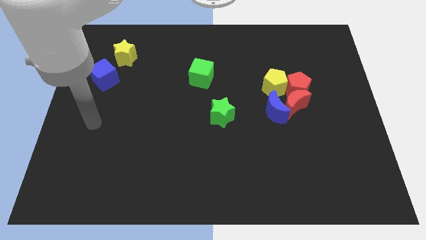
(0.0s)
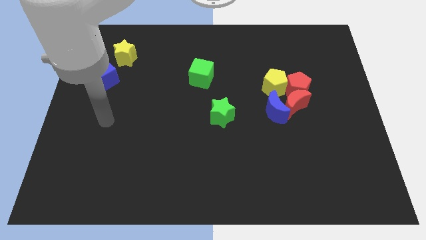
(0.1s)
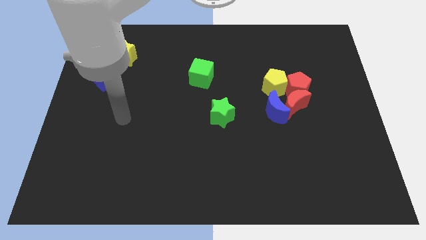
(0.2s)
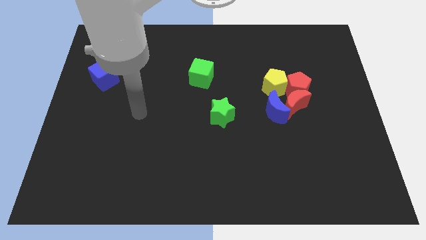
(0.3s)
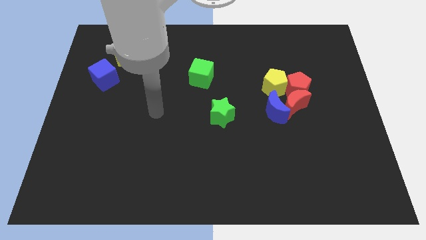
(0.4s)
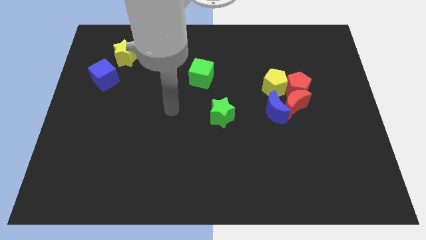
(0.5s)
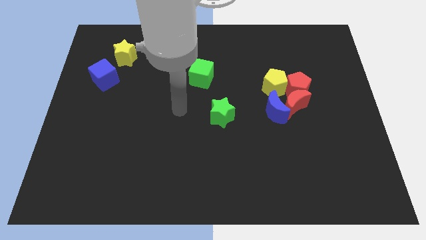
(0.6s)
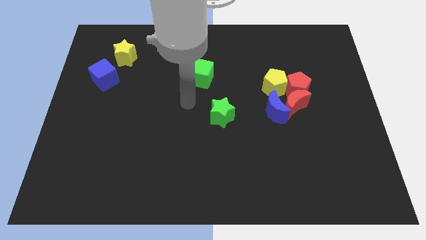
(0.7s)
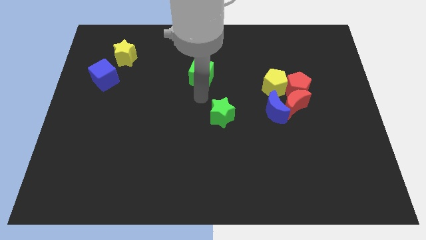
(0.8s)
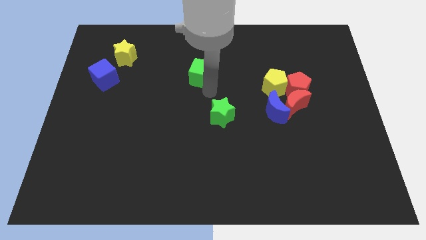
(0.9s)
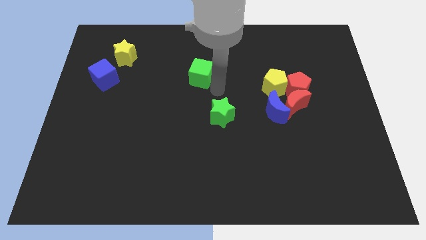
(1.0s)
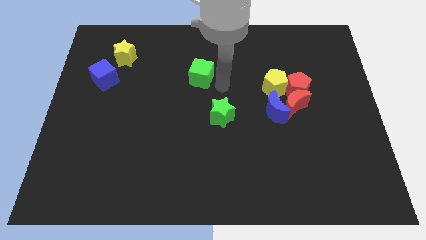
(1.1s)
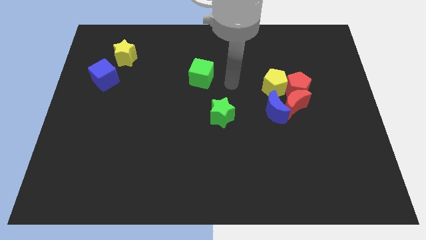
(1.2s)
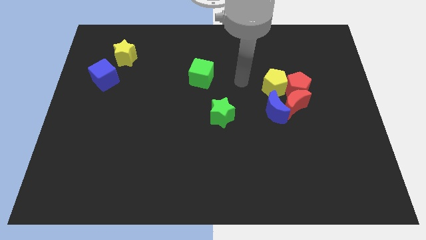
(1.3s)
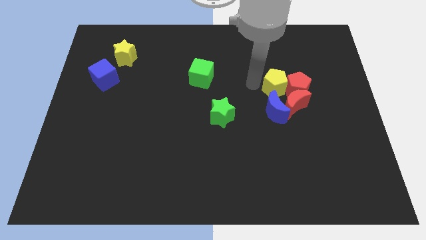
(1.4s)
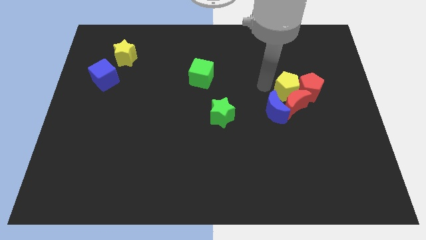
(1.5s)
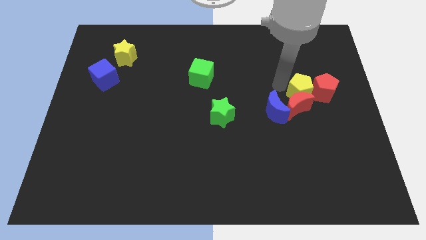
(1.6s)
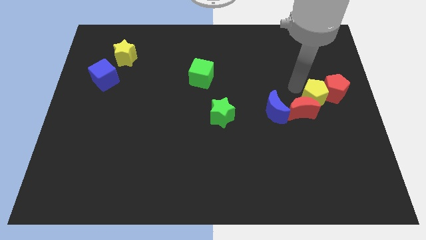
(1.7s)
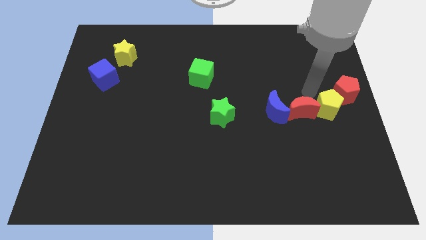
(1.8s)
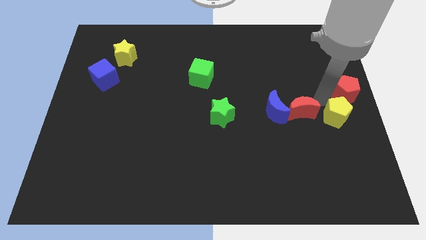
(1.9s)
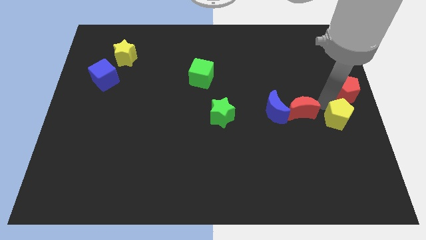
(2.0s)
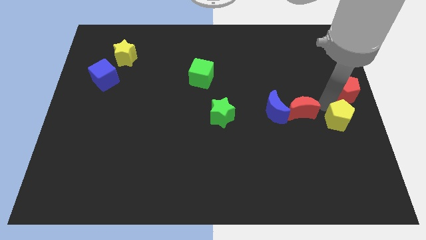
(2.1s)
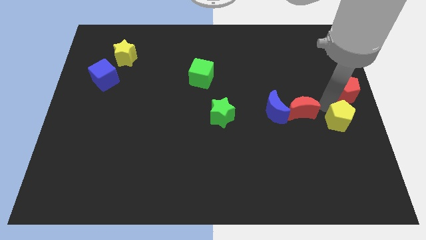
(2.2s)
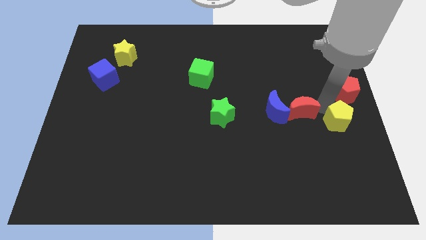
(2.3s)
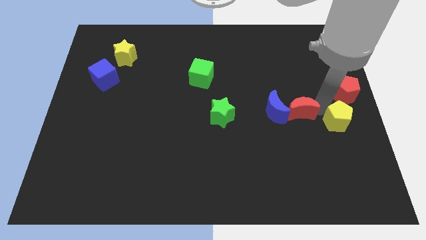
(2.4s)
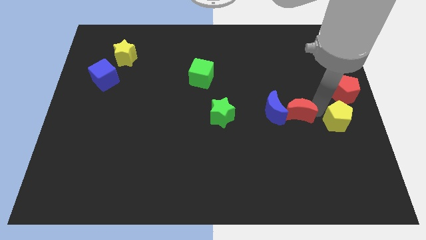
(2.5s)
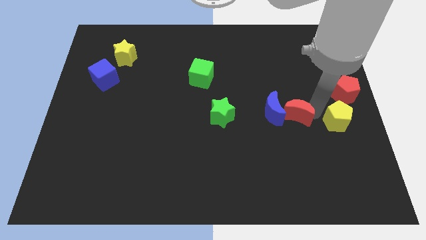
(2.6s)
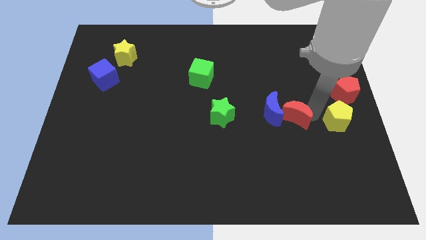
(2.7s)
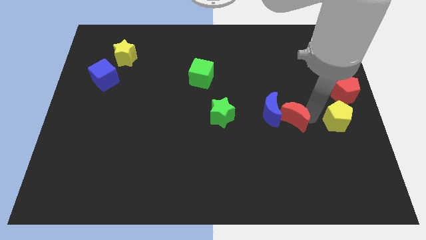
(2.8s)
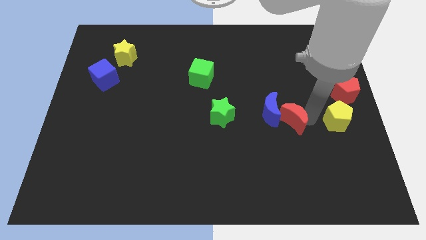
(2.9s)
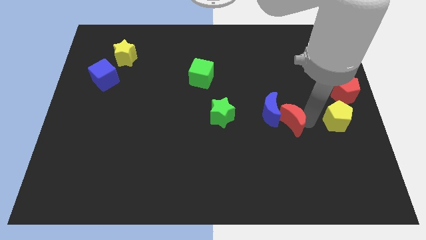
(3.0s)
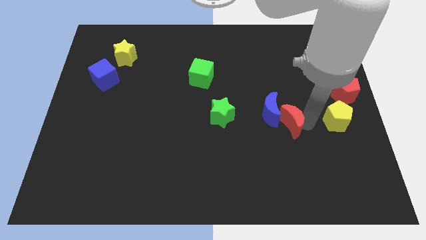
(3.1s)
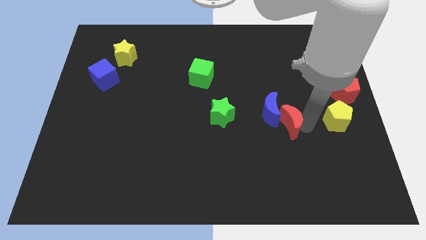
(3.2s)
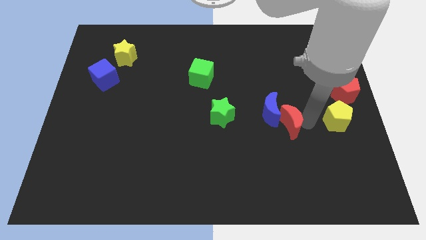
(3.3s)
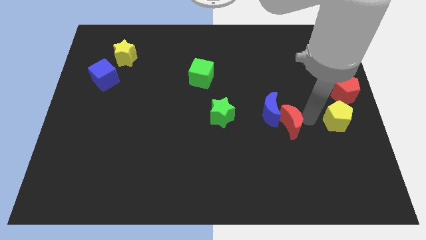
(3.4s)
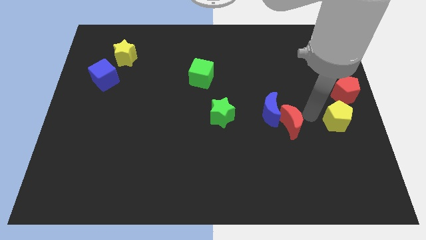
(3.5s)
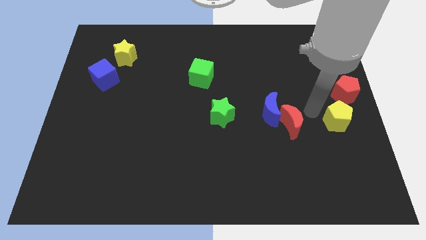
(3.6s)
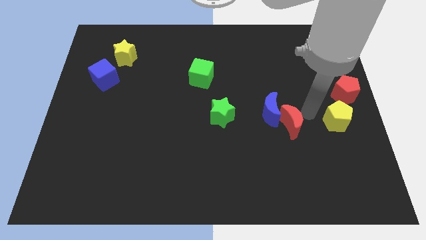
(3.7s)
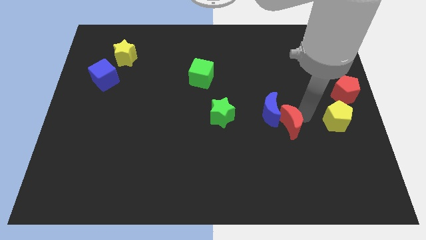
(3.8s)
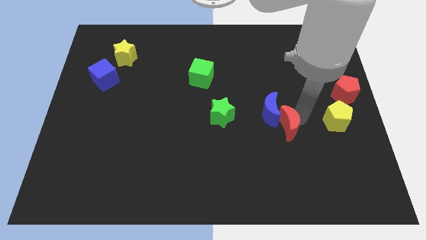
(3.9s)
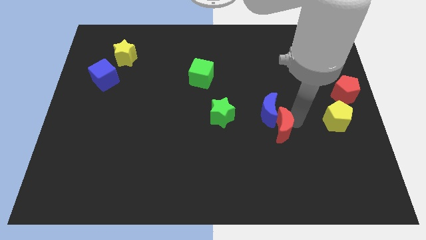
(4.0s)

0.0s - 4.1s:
separate the red moon from the group of blocks

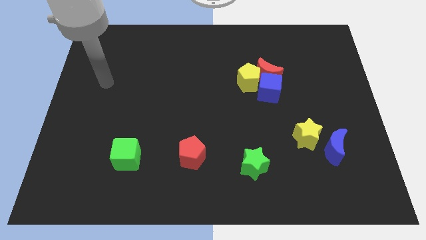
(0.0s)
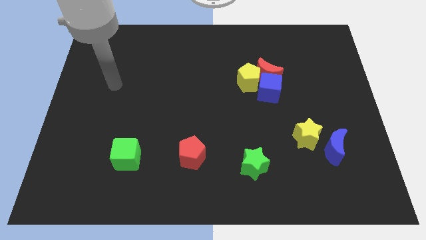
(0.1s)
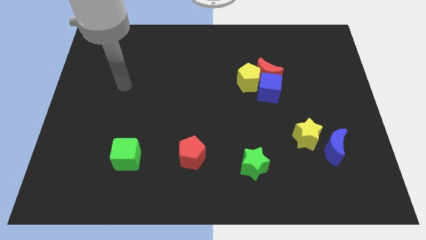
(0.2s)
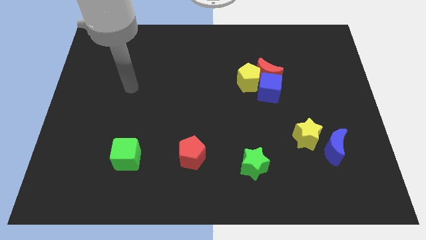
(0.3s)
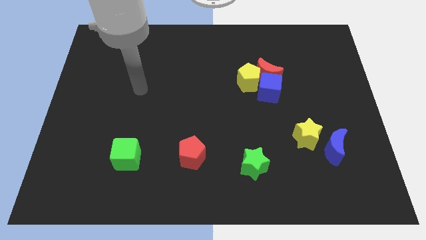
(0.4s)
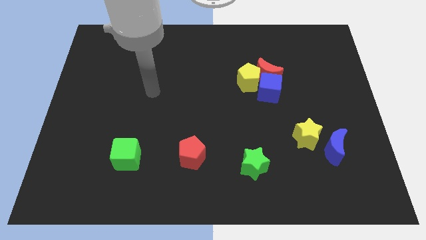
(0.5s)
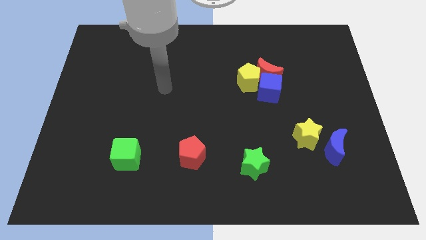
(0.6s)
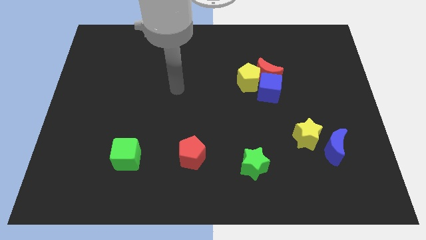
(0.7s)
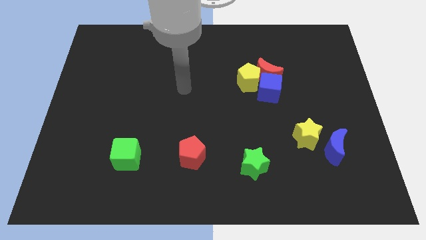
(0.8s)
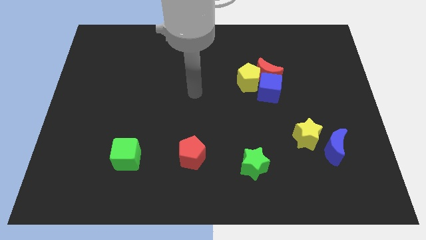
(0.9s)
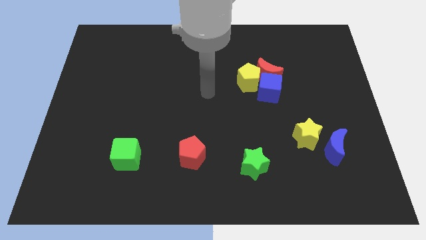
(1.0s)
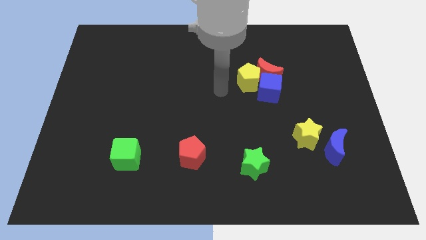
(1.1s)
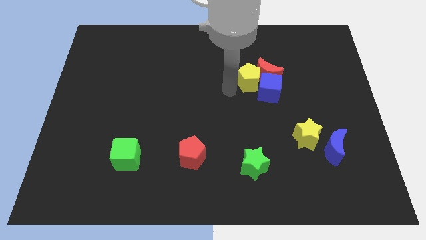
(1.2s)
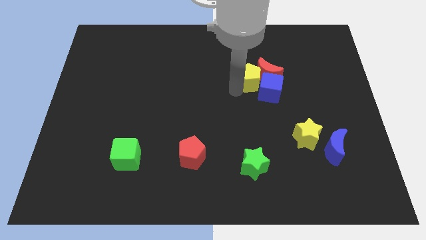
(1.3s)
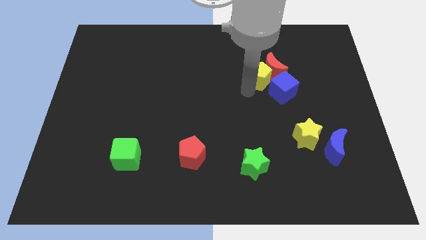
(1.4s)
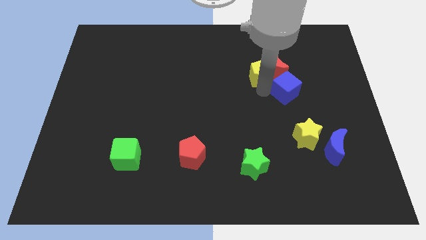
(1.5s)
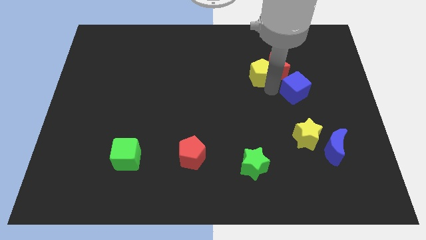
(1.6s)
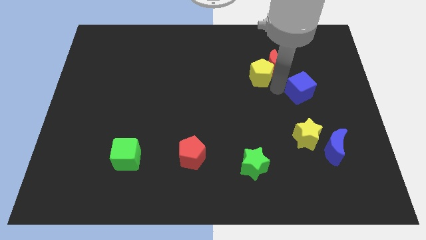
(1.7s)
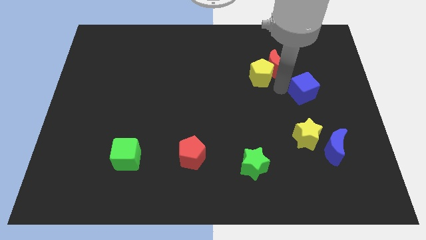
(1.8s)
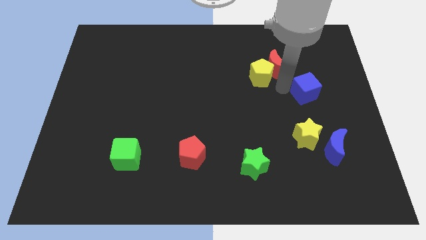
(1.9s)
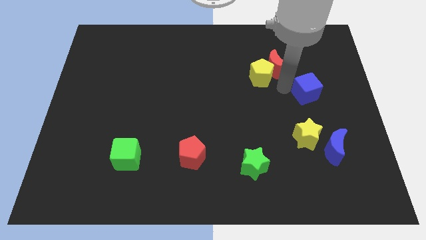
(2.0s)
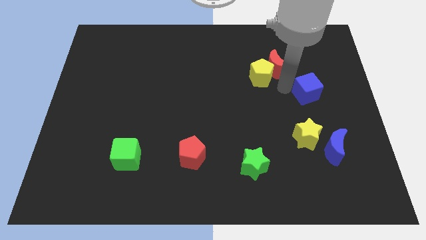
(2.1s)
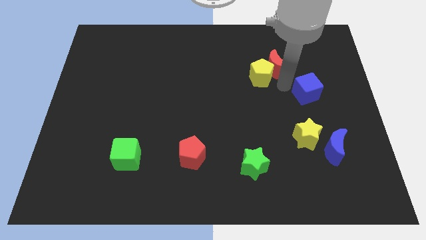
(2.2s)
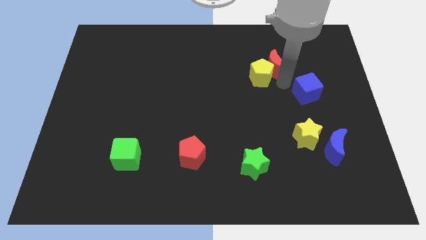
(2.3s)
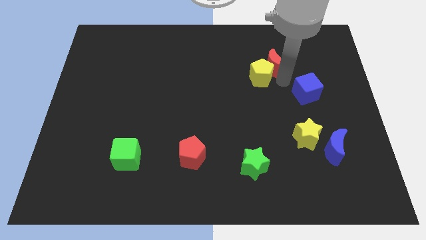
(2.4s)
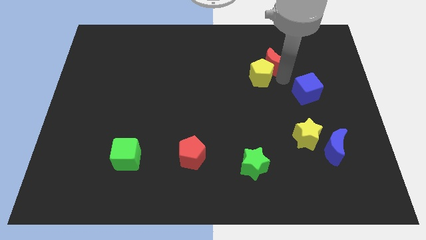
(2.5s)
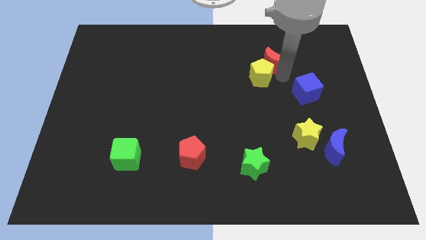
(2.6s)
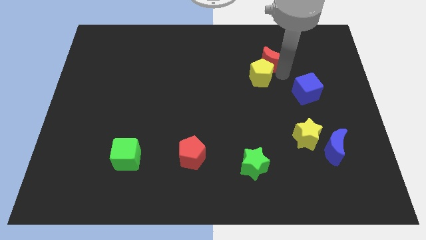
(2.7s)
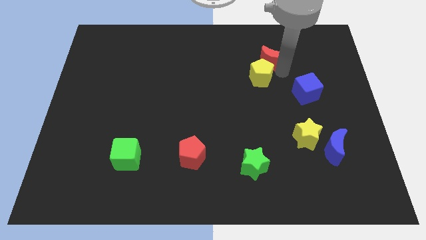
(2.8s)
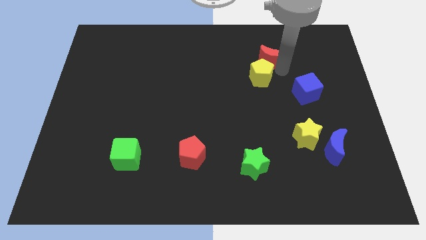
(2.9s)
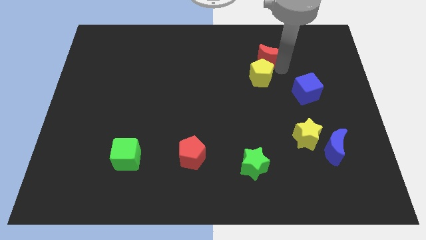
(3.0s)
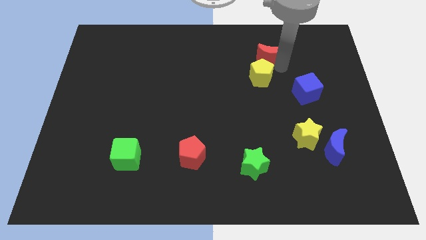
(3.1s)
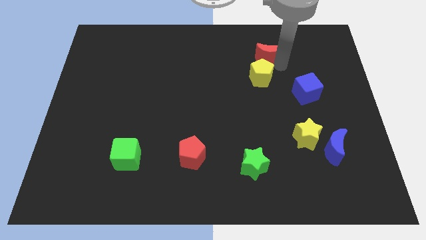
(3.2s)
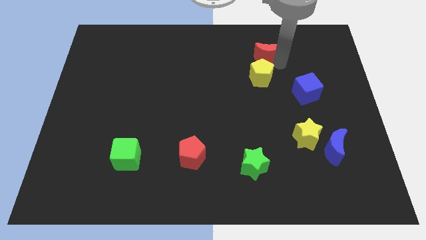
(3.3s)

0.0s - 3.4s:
move the red moon away from the blue cube and yellow pentagon

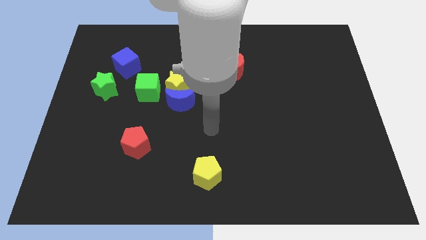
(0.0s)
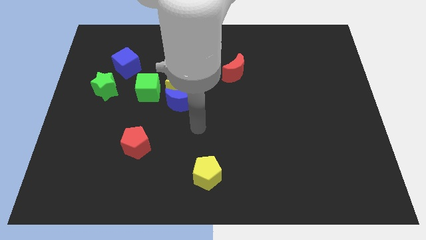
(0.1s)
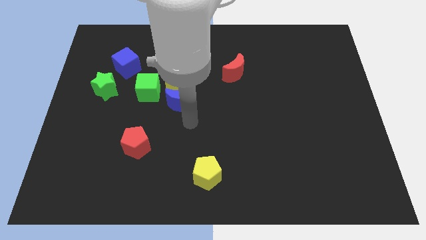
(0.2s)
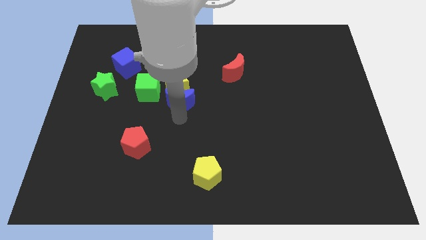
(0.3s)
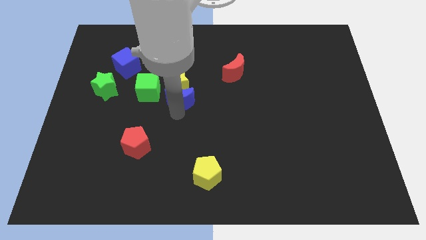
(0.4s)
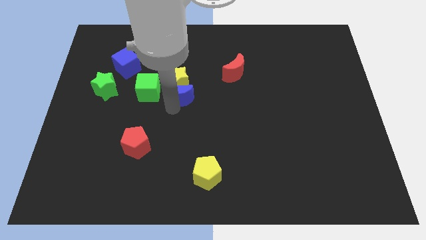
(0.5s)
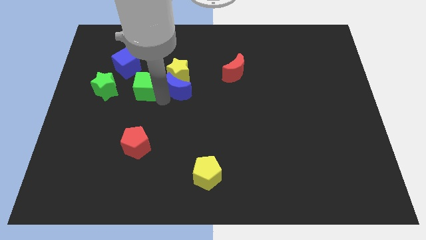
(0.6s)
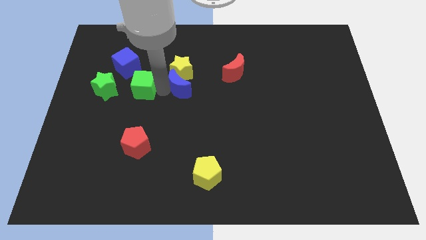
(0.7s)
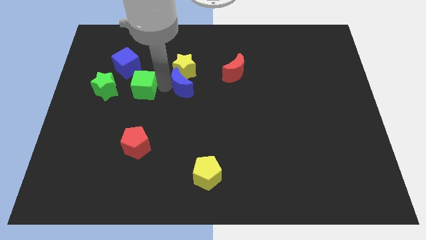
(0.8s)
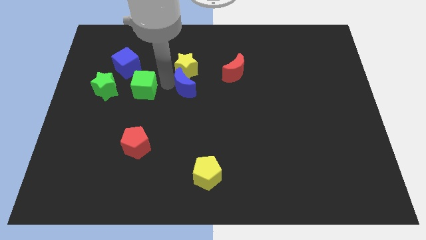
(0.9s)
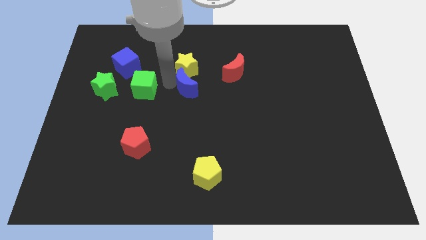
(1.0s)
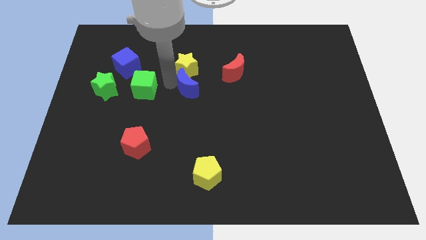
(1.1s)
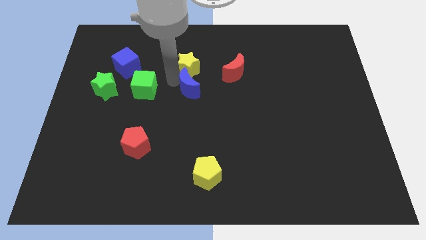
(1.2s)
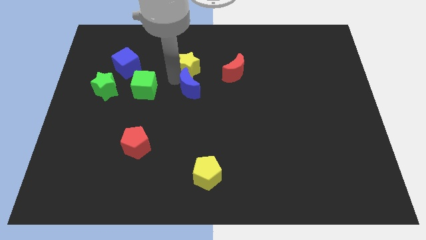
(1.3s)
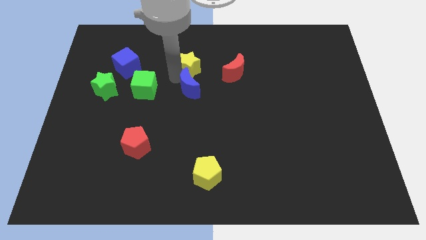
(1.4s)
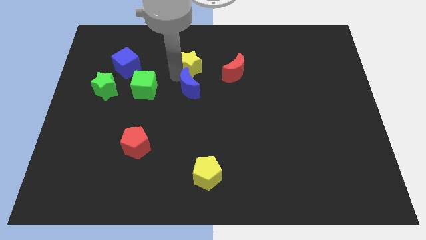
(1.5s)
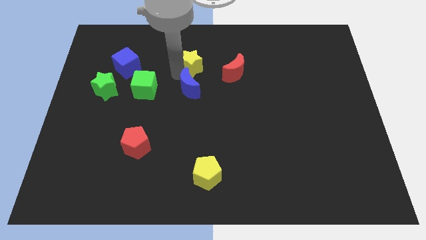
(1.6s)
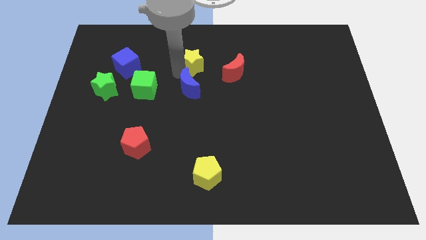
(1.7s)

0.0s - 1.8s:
move the yellow star away from the blue moon and green cube
